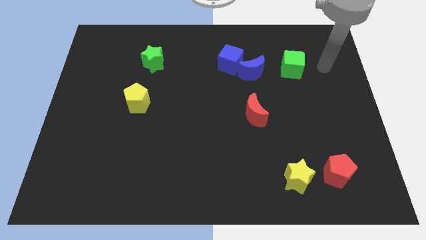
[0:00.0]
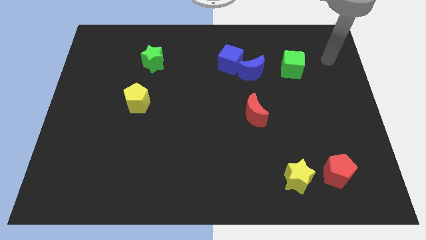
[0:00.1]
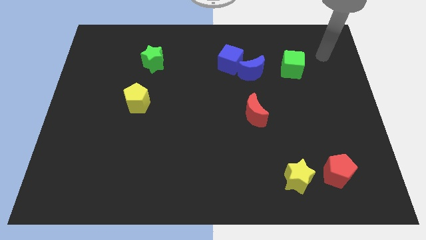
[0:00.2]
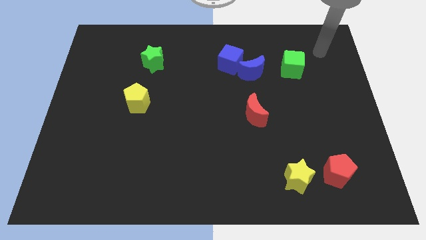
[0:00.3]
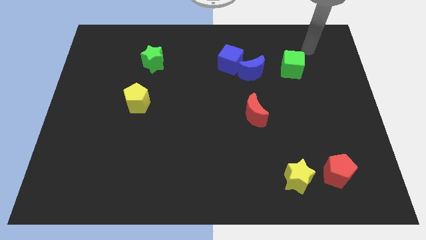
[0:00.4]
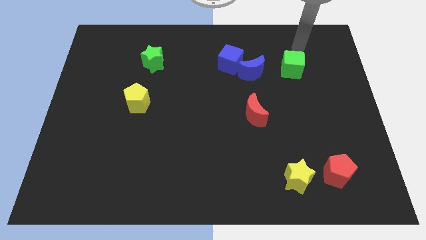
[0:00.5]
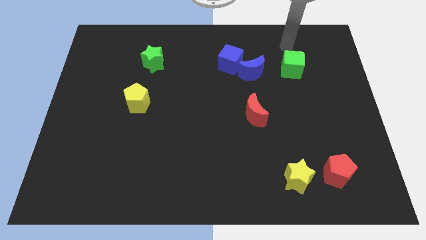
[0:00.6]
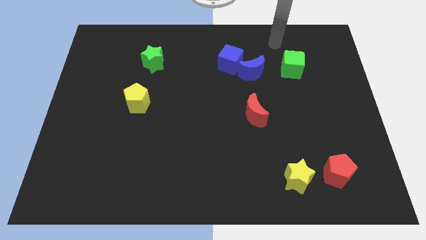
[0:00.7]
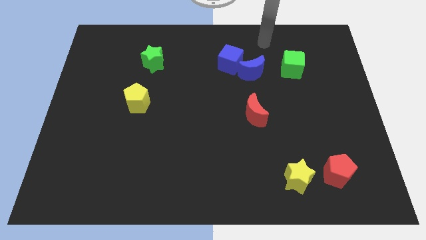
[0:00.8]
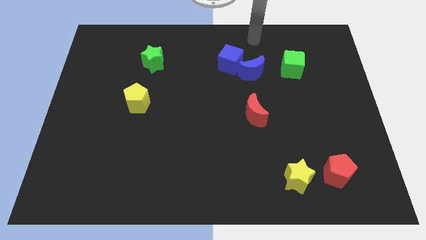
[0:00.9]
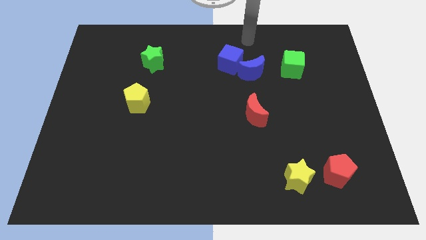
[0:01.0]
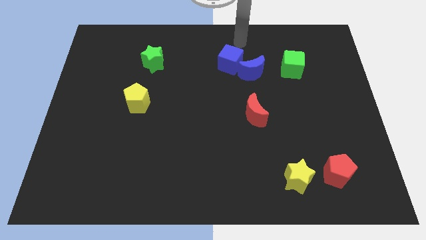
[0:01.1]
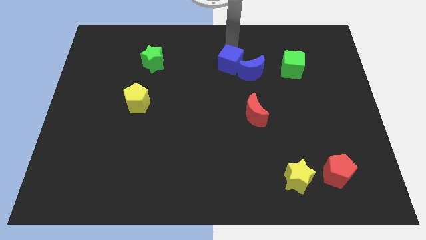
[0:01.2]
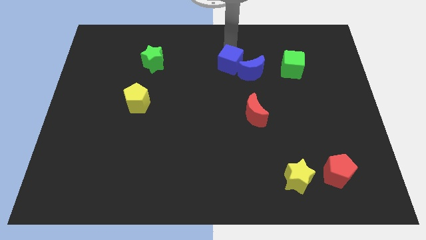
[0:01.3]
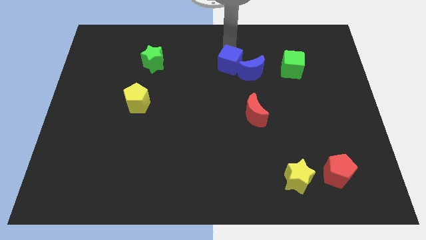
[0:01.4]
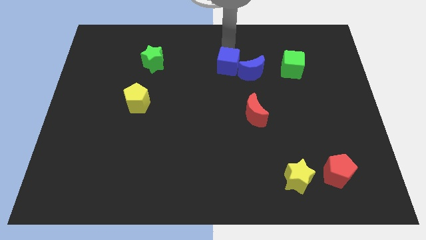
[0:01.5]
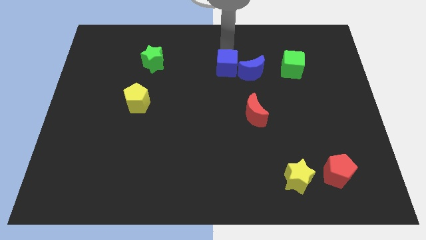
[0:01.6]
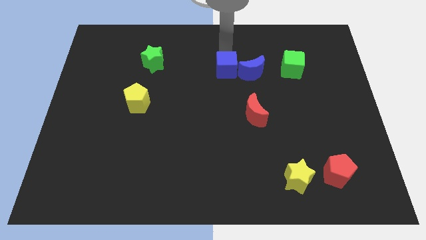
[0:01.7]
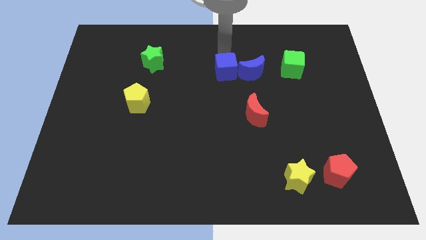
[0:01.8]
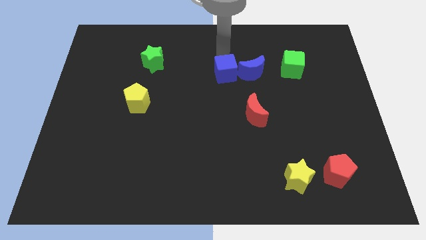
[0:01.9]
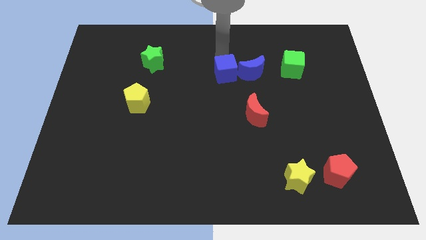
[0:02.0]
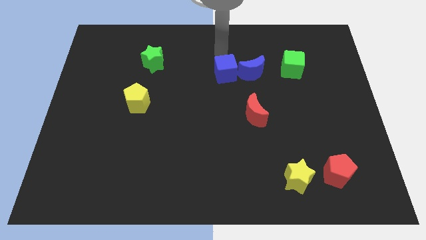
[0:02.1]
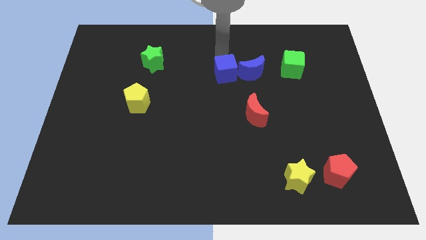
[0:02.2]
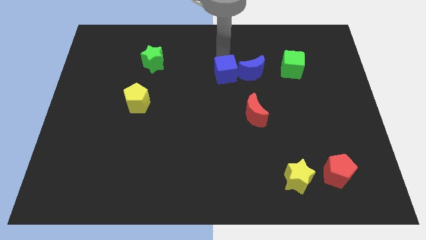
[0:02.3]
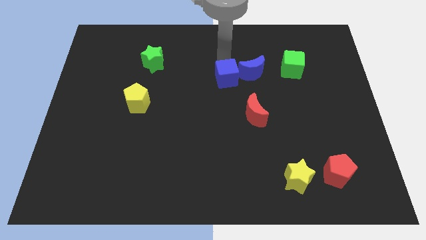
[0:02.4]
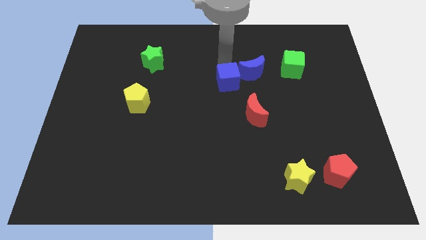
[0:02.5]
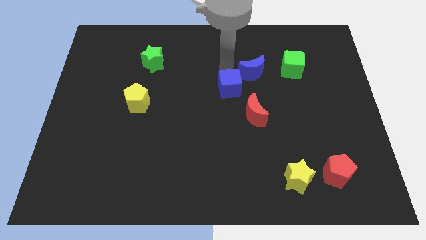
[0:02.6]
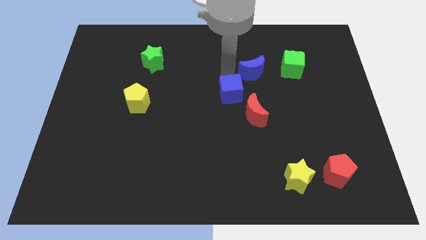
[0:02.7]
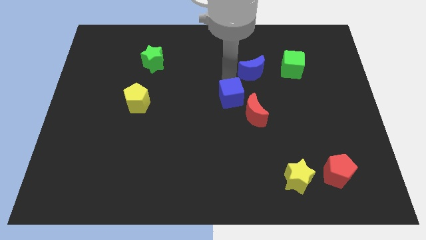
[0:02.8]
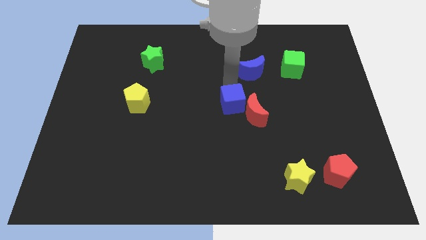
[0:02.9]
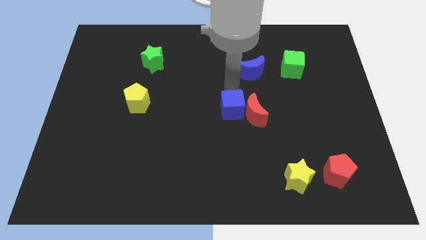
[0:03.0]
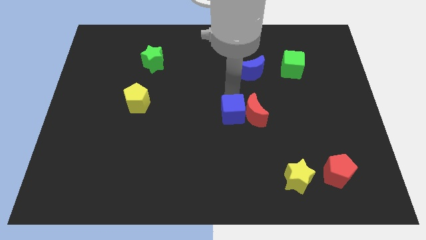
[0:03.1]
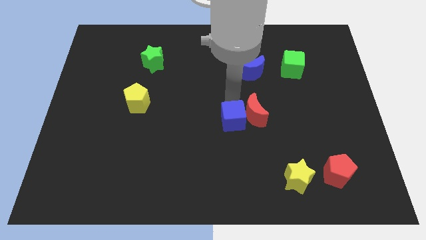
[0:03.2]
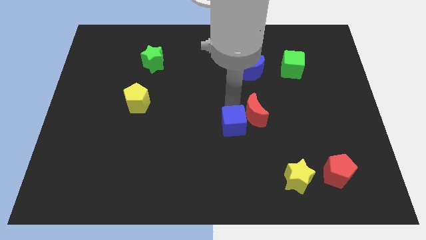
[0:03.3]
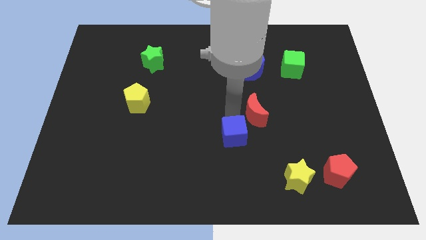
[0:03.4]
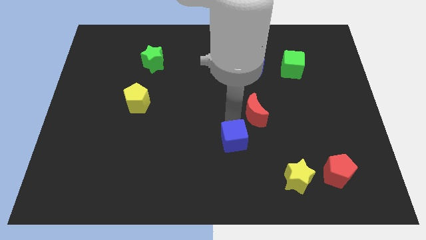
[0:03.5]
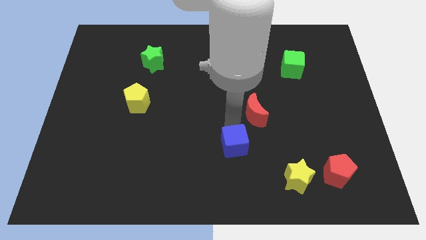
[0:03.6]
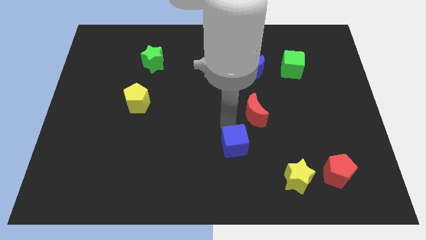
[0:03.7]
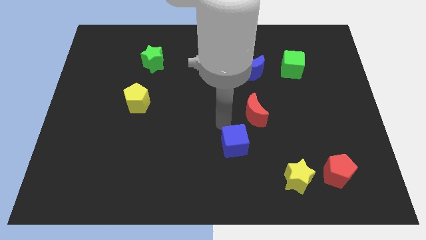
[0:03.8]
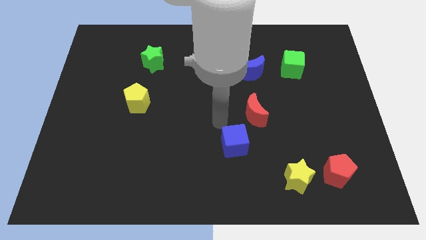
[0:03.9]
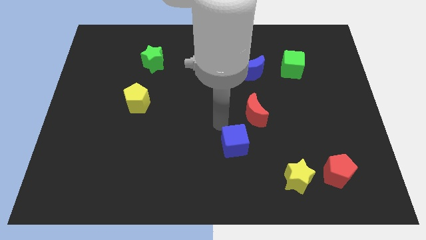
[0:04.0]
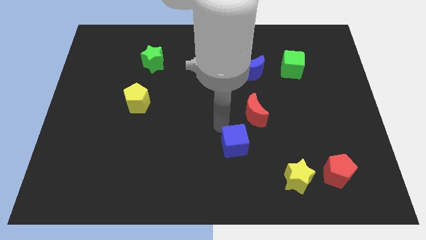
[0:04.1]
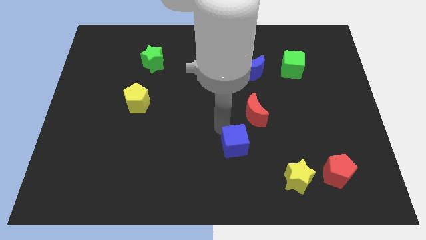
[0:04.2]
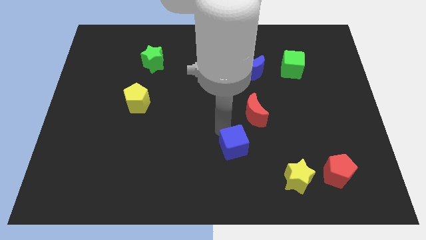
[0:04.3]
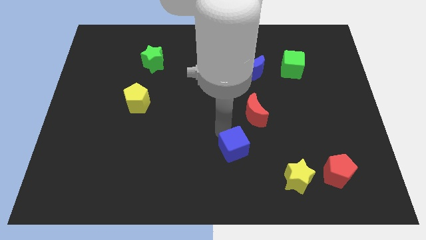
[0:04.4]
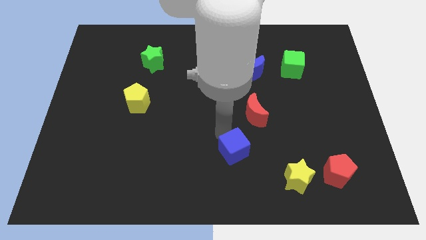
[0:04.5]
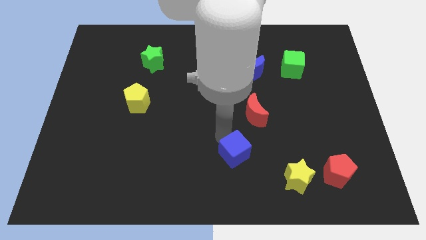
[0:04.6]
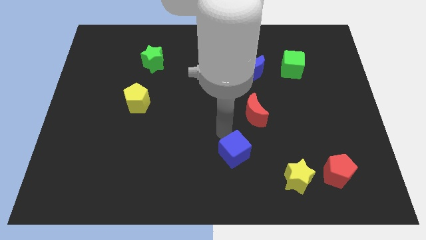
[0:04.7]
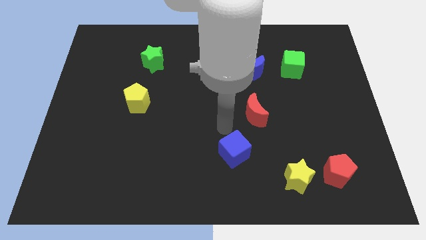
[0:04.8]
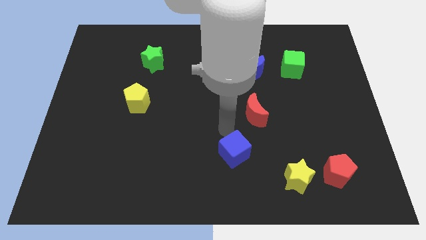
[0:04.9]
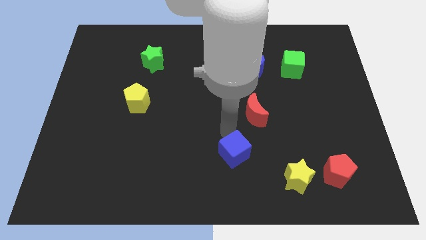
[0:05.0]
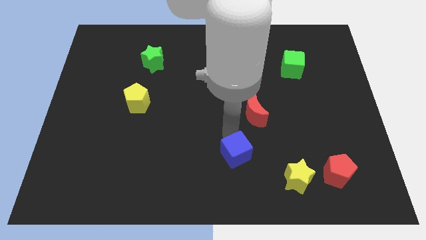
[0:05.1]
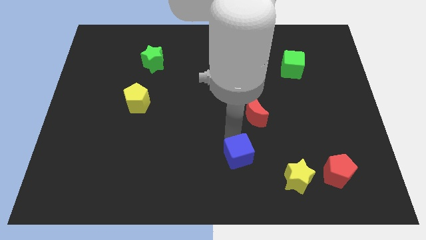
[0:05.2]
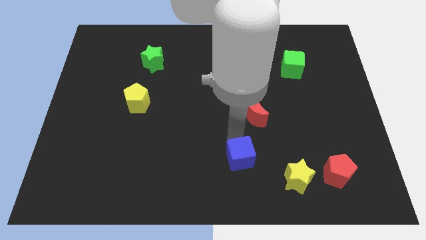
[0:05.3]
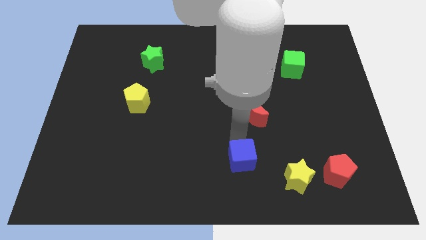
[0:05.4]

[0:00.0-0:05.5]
move the blue cube just left of the yellow star

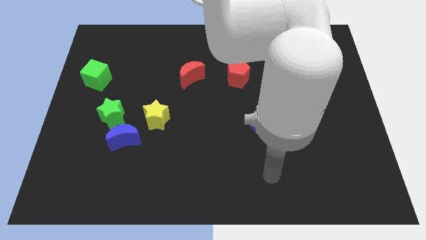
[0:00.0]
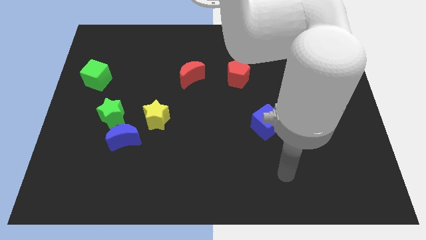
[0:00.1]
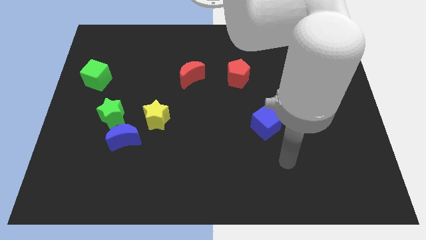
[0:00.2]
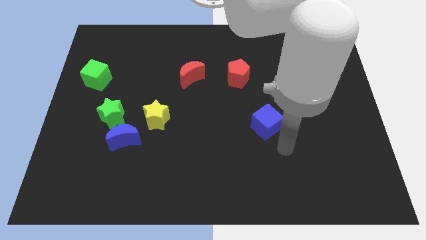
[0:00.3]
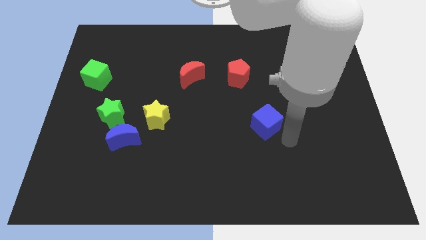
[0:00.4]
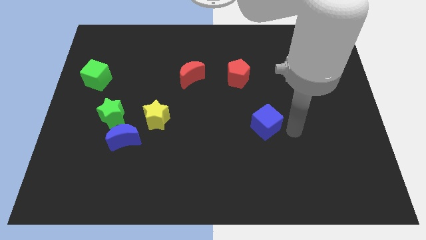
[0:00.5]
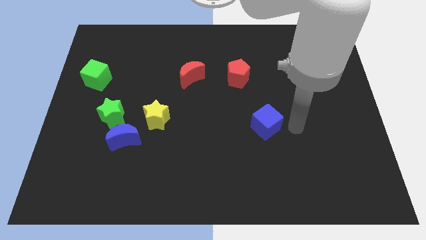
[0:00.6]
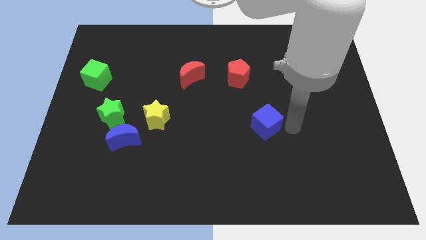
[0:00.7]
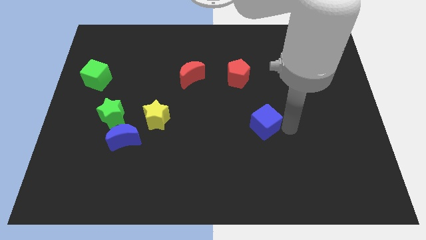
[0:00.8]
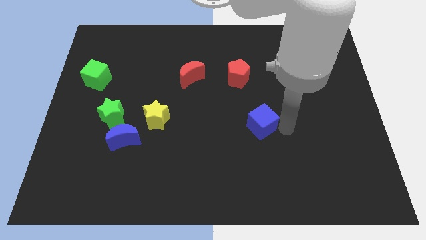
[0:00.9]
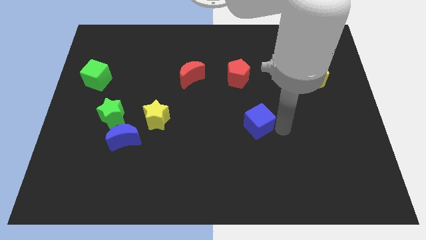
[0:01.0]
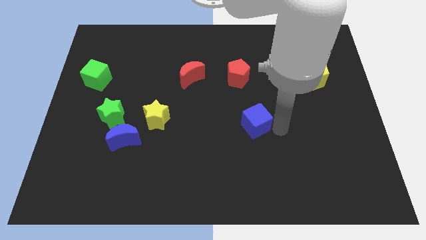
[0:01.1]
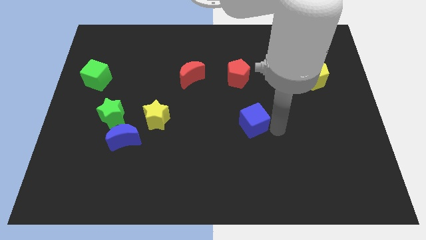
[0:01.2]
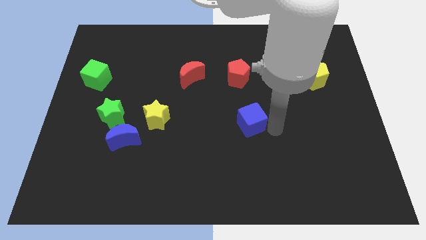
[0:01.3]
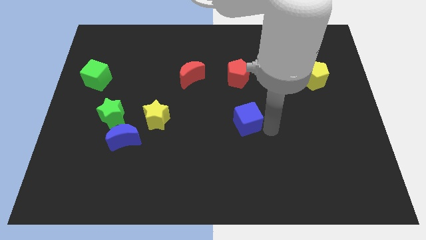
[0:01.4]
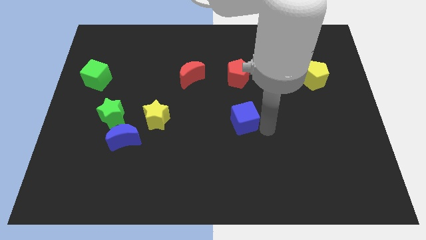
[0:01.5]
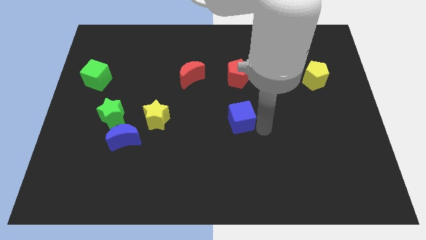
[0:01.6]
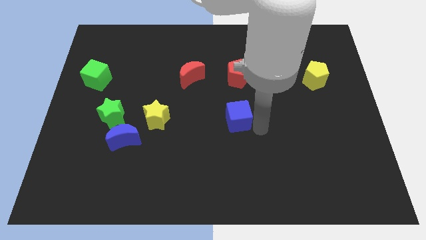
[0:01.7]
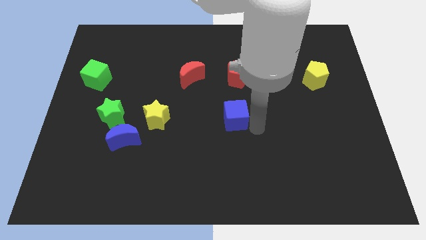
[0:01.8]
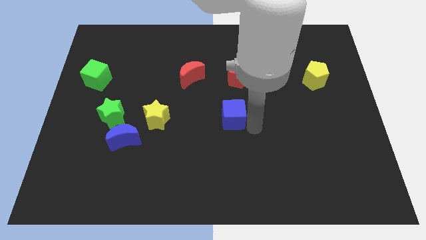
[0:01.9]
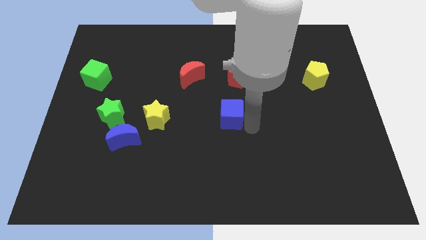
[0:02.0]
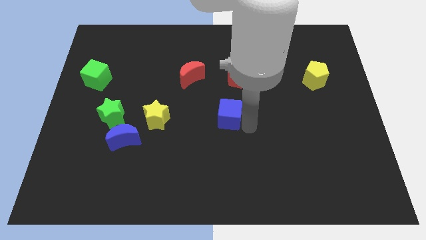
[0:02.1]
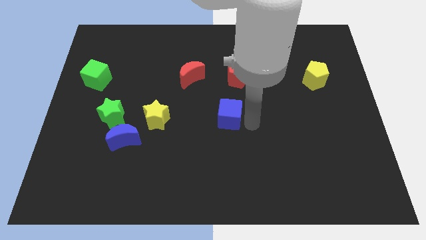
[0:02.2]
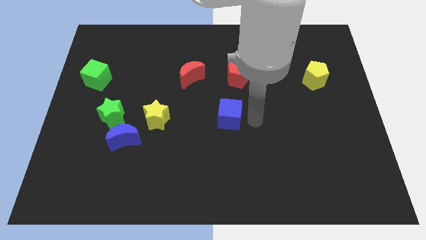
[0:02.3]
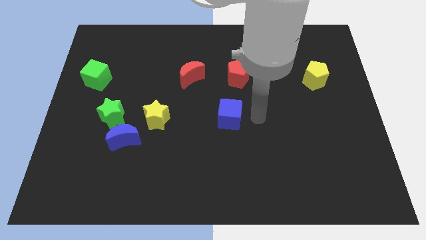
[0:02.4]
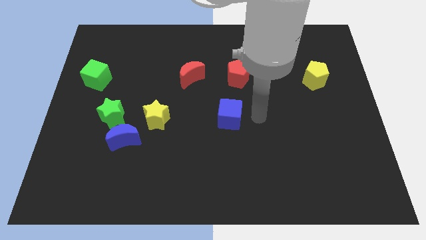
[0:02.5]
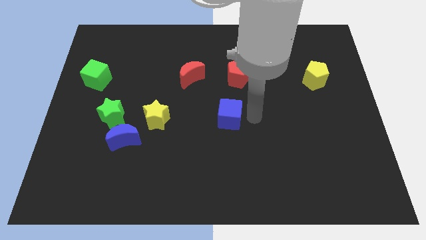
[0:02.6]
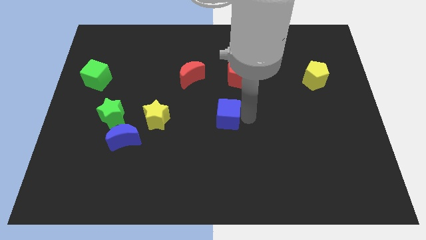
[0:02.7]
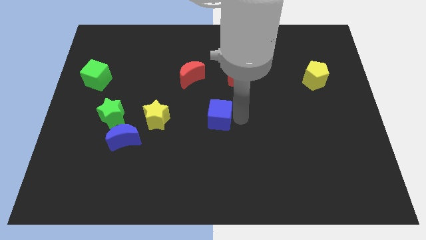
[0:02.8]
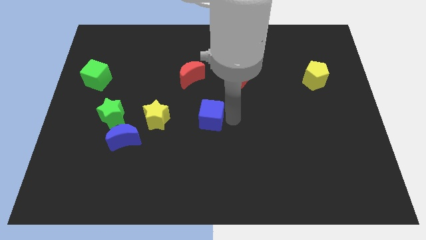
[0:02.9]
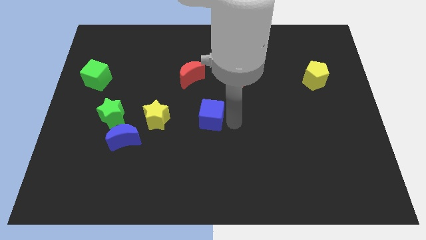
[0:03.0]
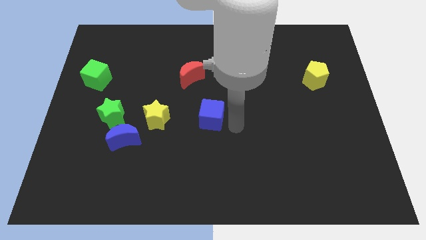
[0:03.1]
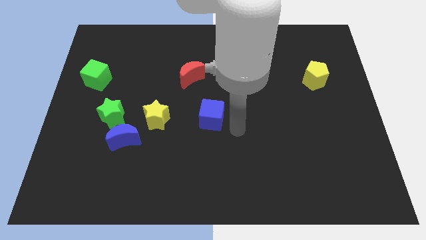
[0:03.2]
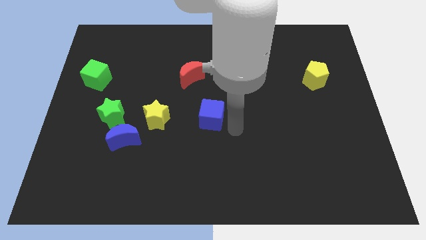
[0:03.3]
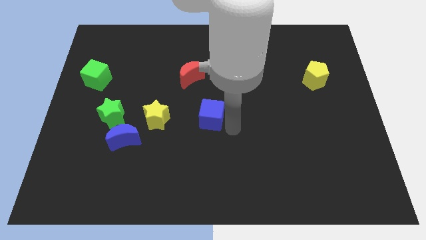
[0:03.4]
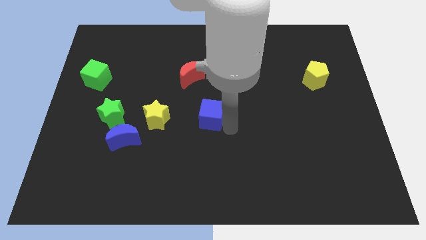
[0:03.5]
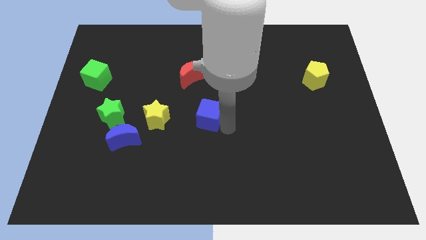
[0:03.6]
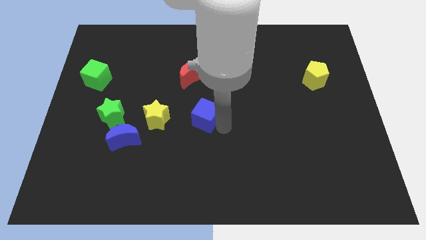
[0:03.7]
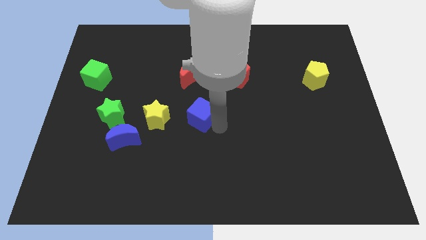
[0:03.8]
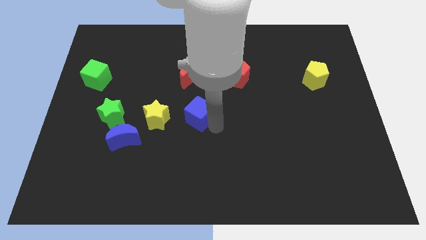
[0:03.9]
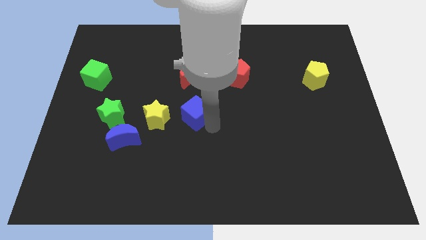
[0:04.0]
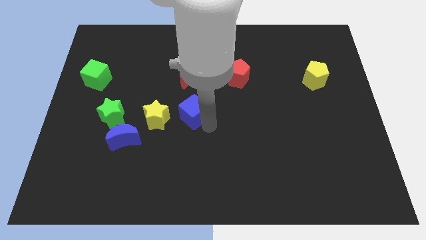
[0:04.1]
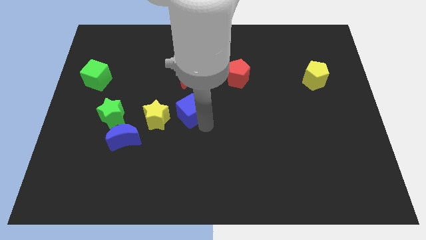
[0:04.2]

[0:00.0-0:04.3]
put the blue cube diagonally up and to the right of the yellow star
